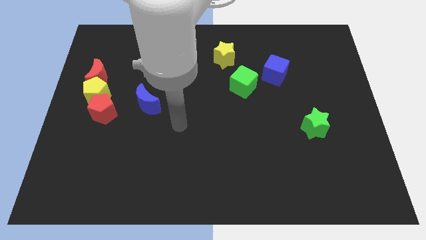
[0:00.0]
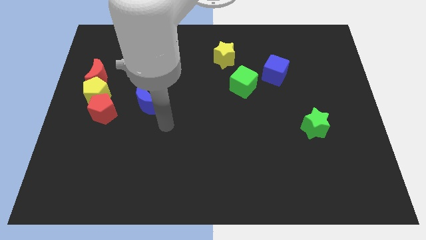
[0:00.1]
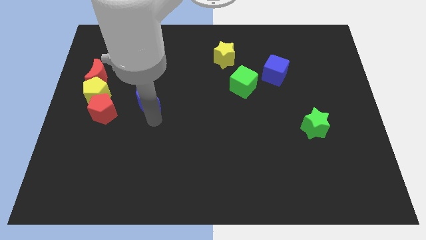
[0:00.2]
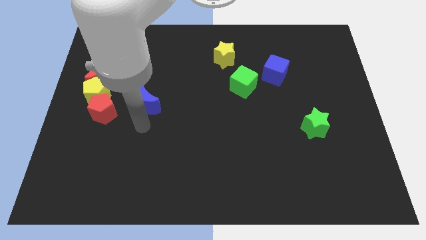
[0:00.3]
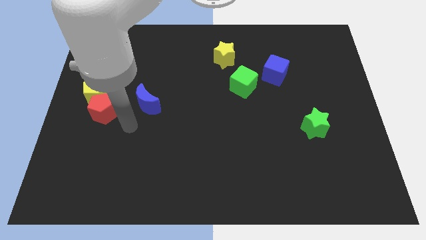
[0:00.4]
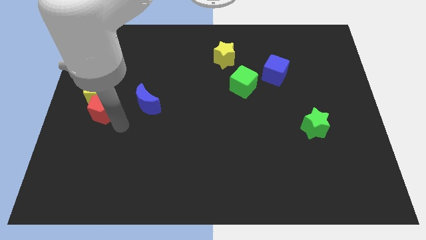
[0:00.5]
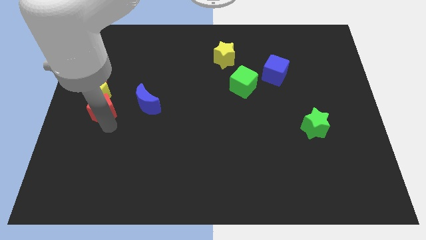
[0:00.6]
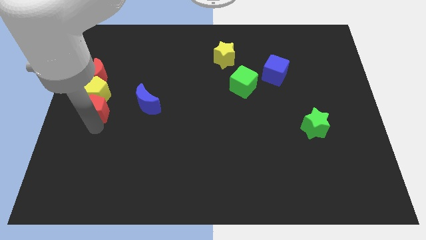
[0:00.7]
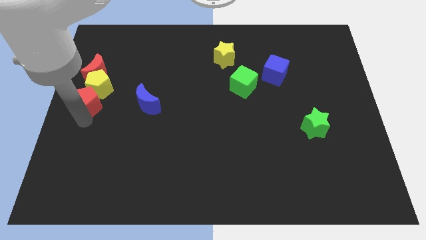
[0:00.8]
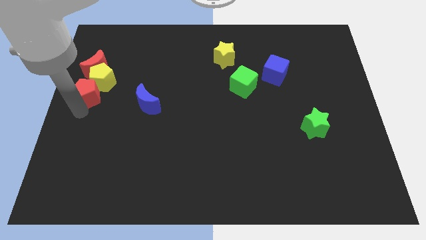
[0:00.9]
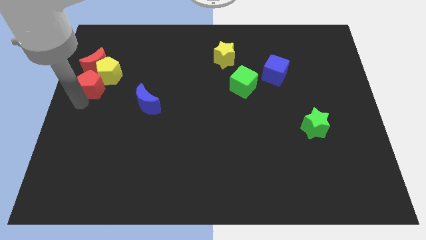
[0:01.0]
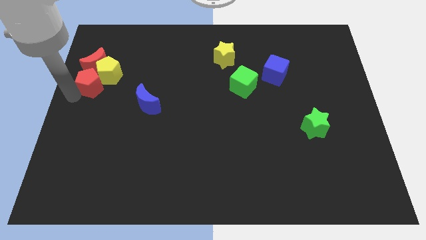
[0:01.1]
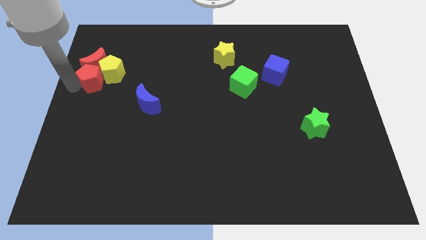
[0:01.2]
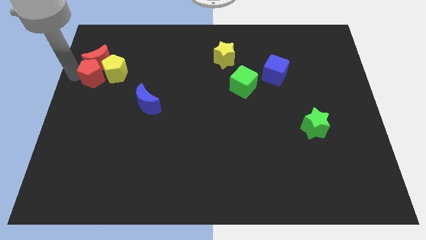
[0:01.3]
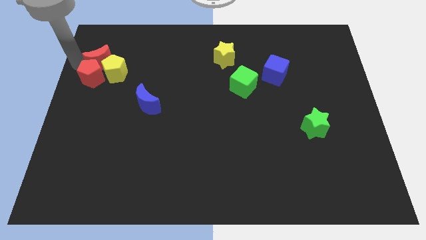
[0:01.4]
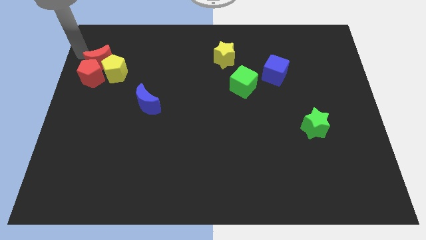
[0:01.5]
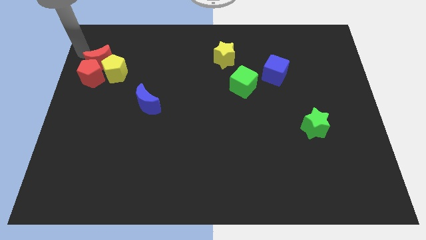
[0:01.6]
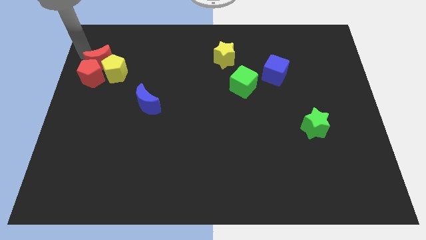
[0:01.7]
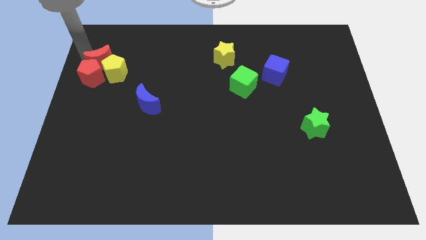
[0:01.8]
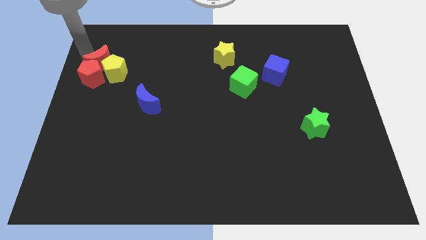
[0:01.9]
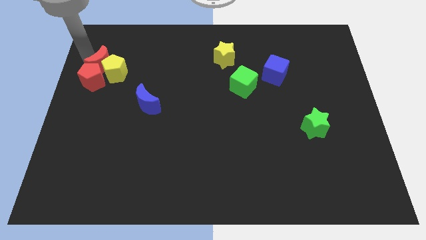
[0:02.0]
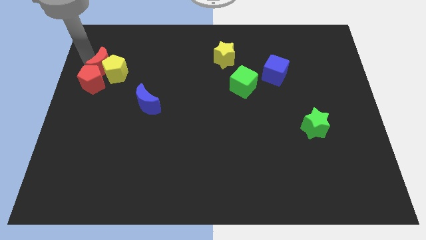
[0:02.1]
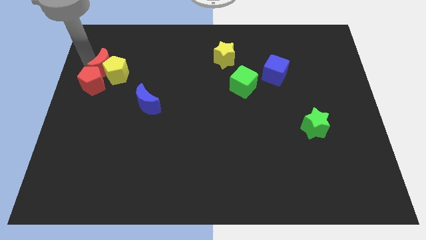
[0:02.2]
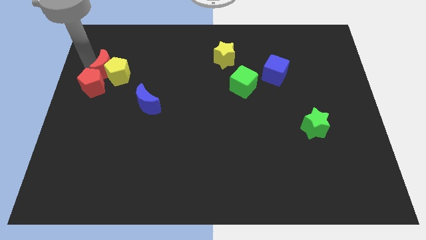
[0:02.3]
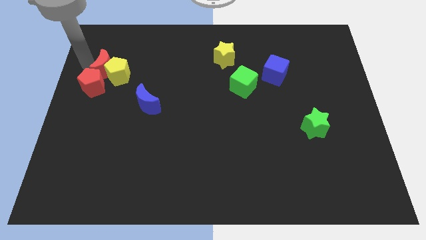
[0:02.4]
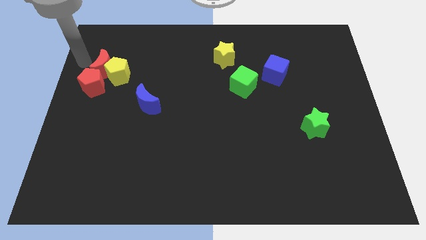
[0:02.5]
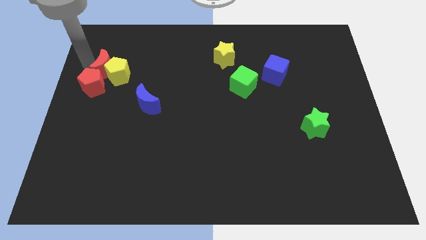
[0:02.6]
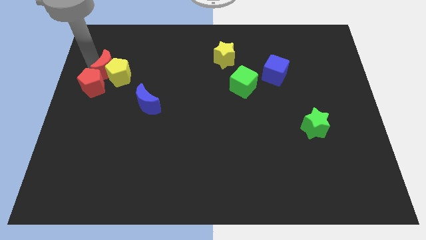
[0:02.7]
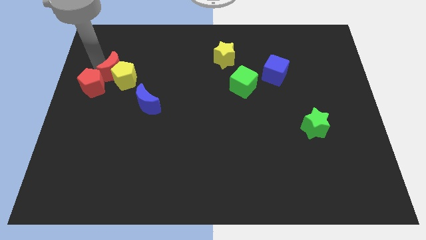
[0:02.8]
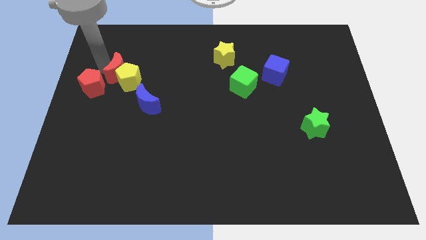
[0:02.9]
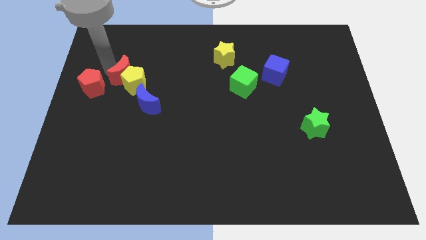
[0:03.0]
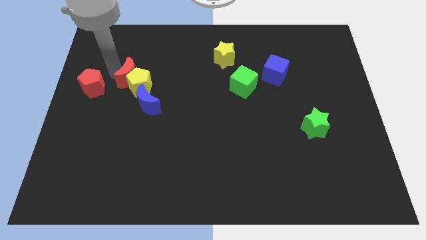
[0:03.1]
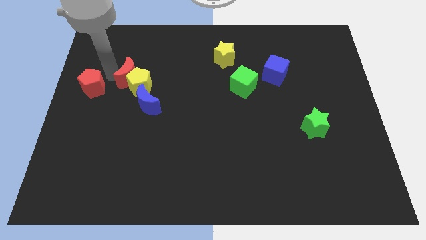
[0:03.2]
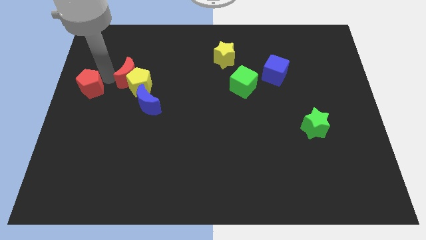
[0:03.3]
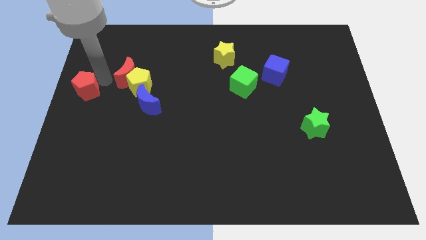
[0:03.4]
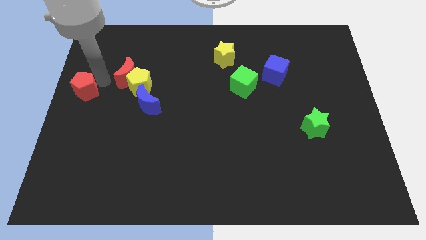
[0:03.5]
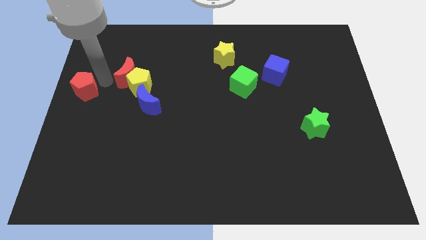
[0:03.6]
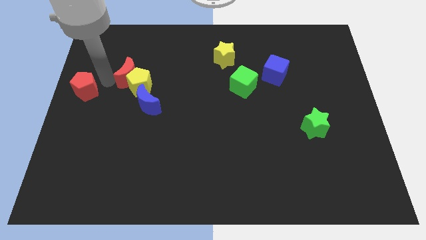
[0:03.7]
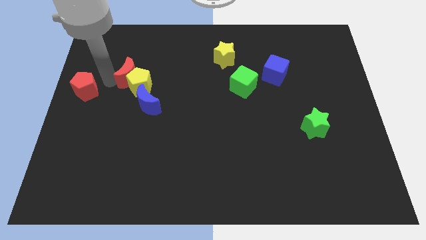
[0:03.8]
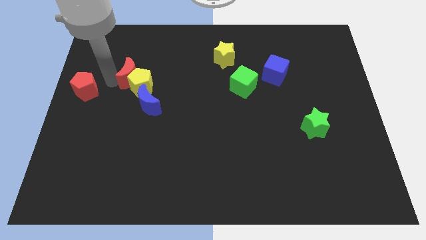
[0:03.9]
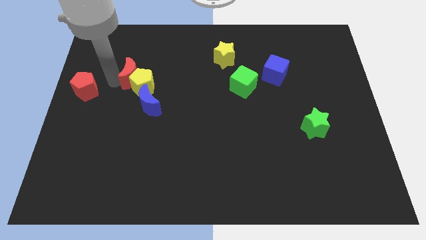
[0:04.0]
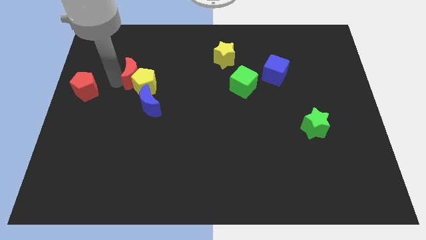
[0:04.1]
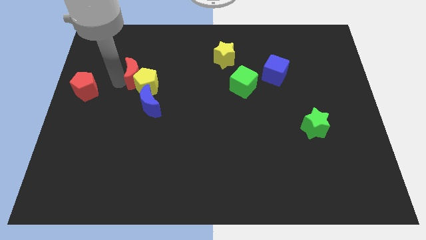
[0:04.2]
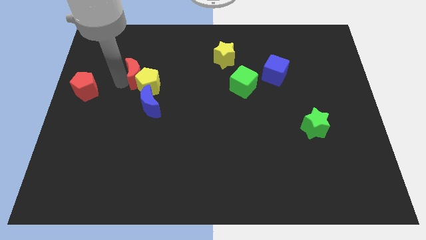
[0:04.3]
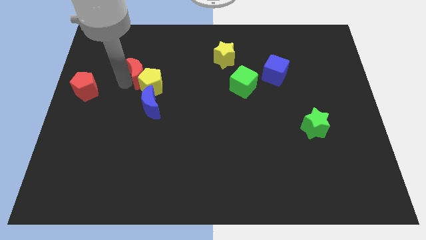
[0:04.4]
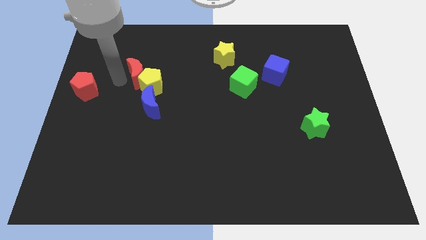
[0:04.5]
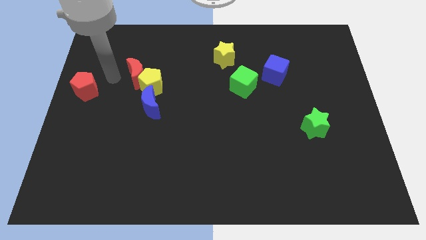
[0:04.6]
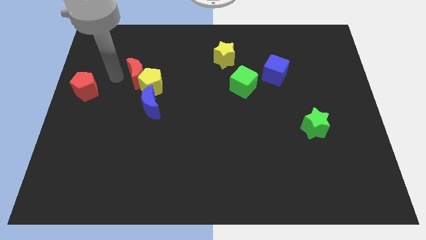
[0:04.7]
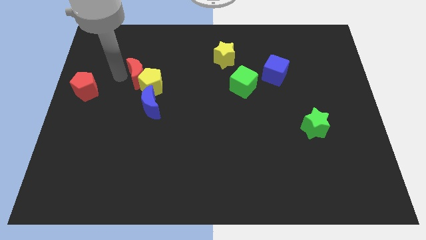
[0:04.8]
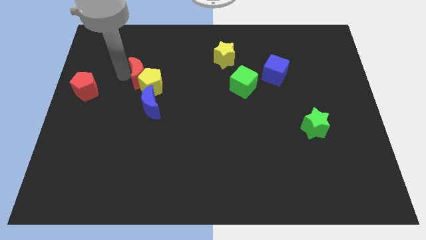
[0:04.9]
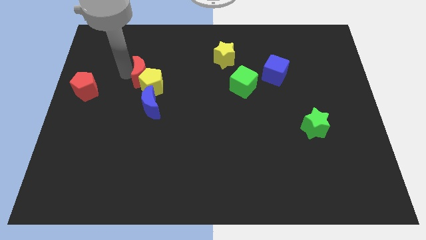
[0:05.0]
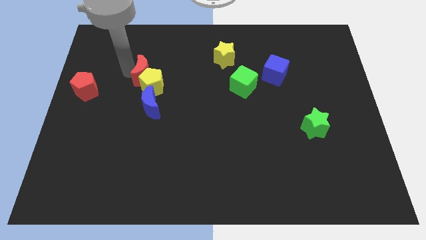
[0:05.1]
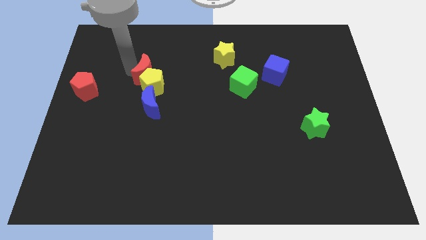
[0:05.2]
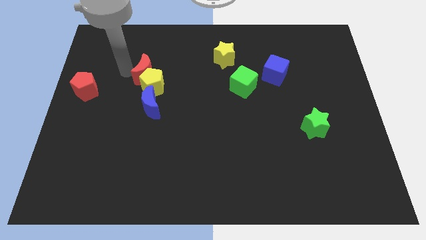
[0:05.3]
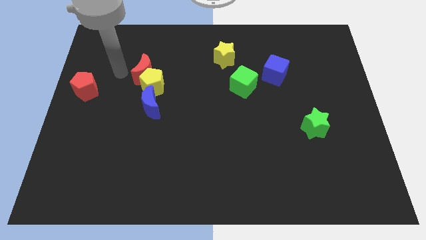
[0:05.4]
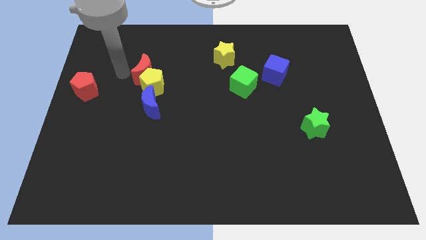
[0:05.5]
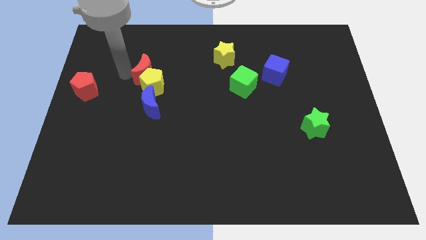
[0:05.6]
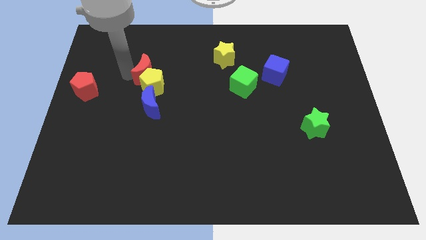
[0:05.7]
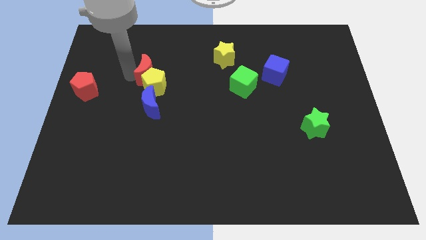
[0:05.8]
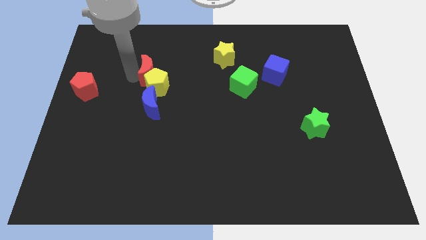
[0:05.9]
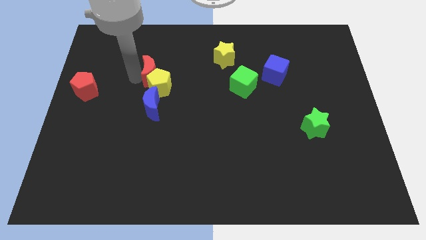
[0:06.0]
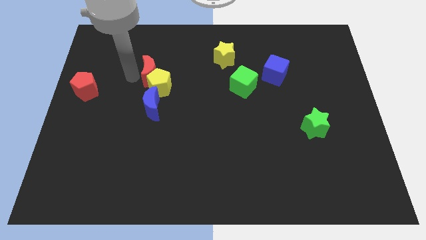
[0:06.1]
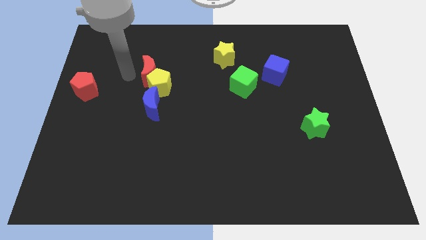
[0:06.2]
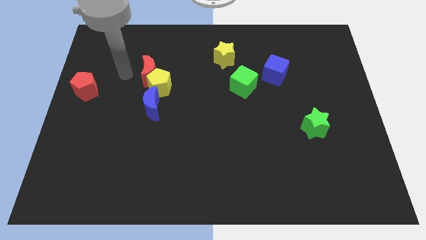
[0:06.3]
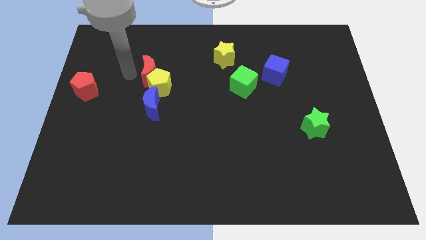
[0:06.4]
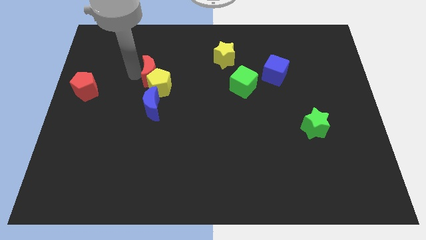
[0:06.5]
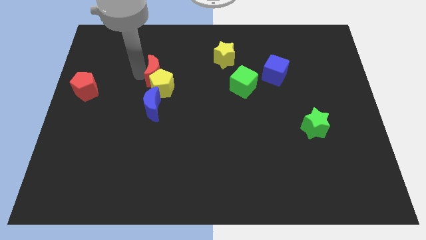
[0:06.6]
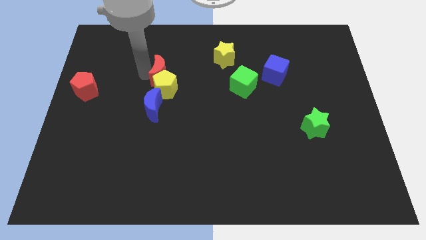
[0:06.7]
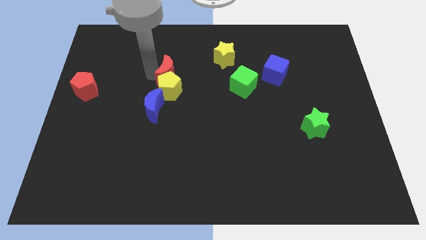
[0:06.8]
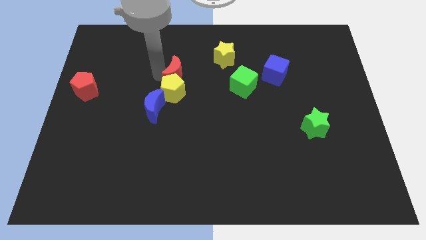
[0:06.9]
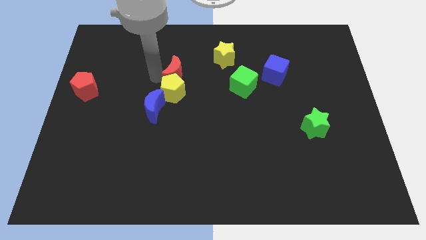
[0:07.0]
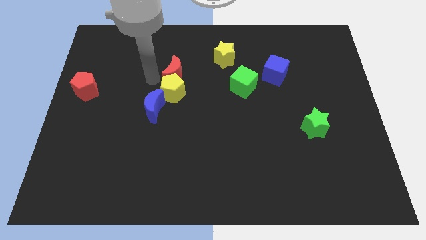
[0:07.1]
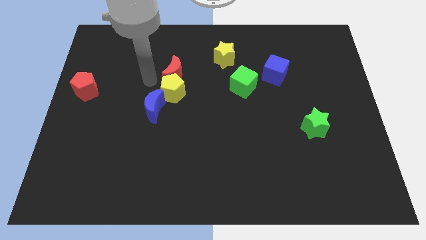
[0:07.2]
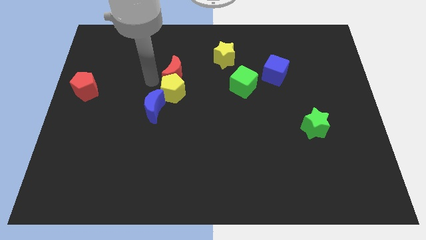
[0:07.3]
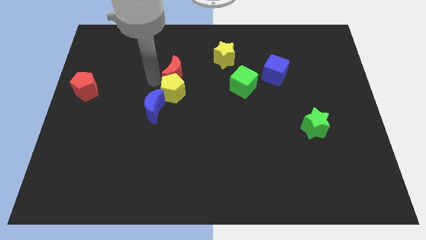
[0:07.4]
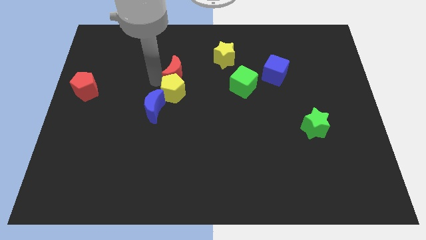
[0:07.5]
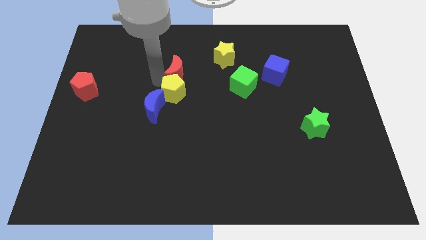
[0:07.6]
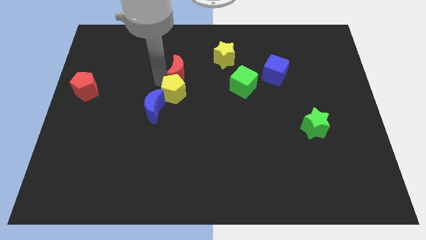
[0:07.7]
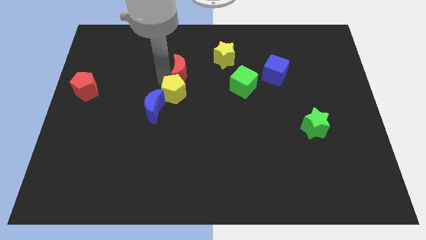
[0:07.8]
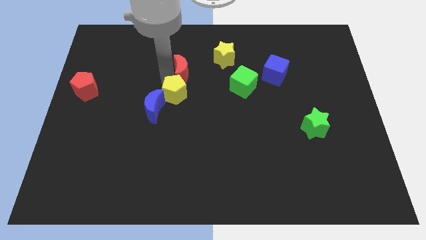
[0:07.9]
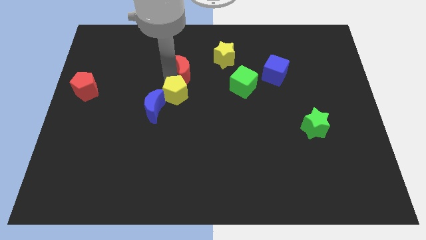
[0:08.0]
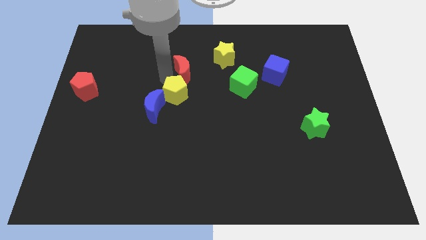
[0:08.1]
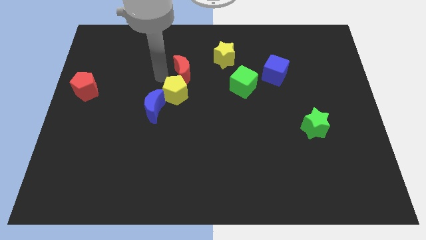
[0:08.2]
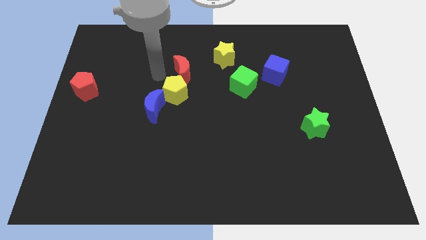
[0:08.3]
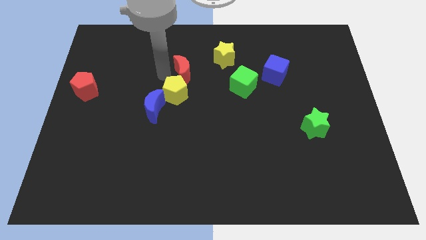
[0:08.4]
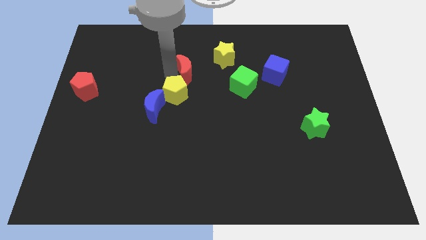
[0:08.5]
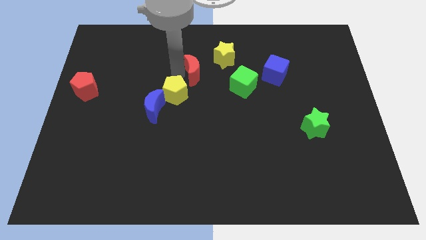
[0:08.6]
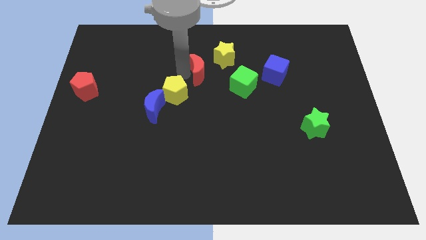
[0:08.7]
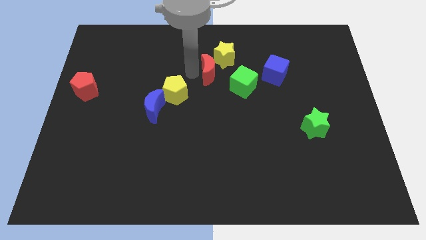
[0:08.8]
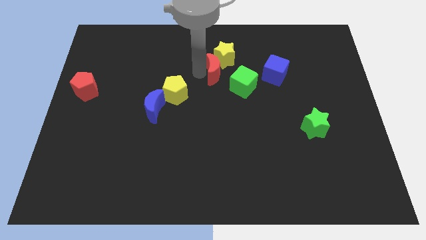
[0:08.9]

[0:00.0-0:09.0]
put the red moon to the left side of the blue cube
